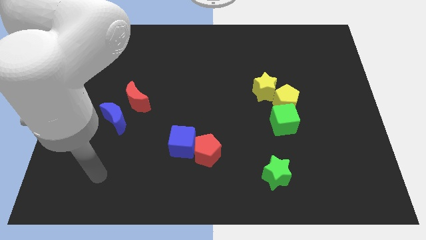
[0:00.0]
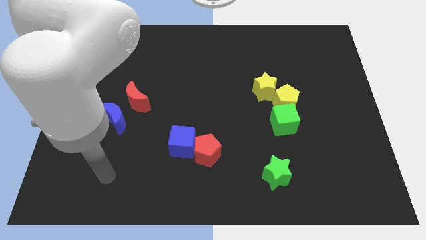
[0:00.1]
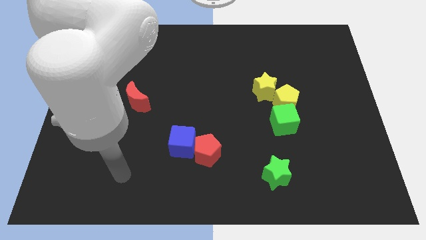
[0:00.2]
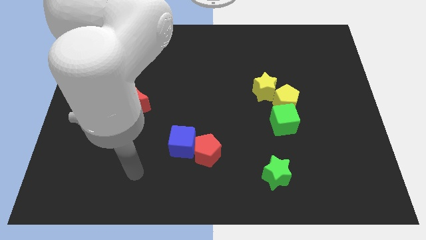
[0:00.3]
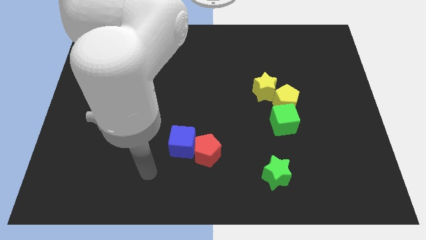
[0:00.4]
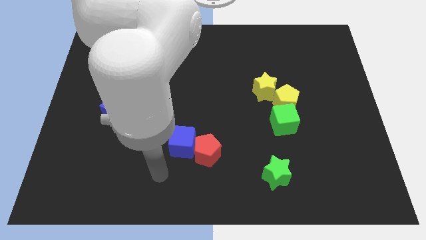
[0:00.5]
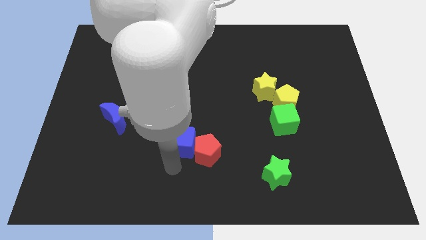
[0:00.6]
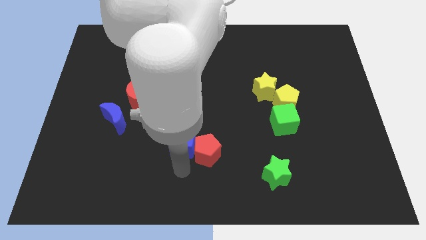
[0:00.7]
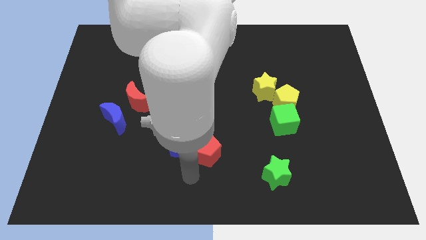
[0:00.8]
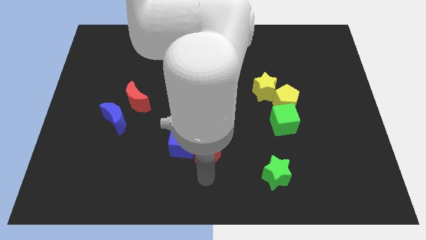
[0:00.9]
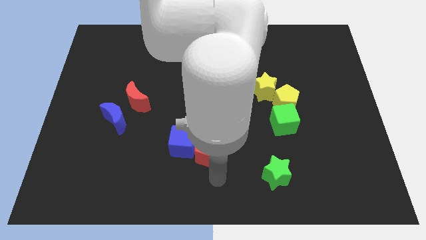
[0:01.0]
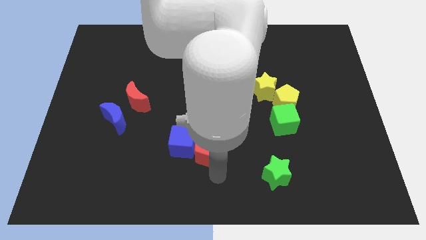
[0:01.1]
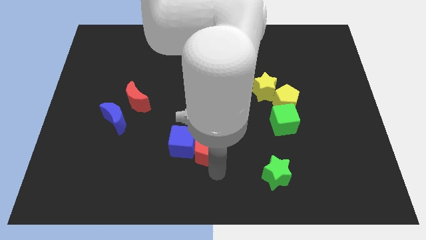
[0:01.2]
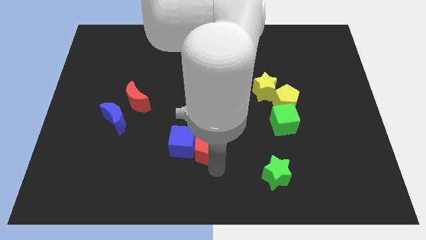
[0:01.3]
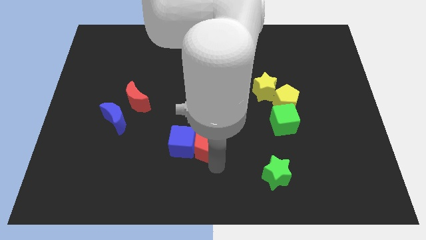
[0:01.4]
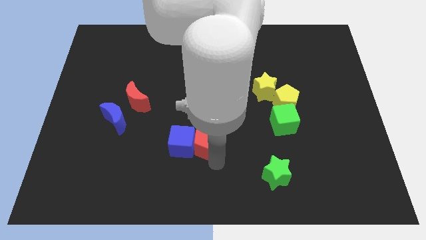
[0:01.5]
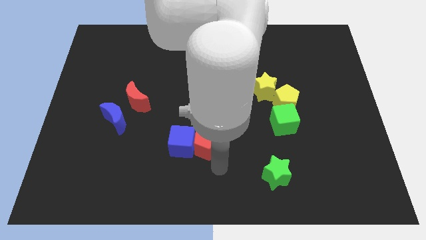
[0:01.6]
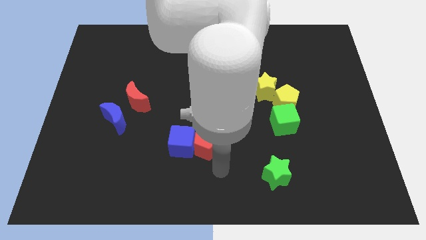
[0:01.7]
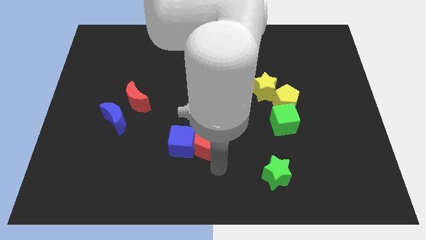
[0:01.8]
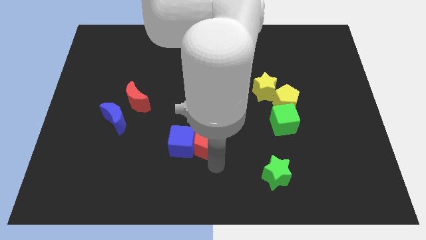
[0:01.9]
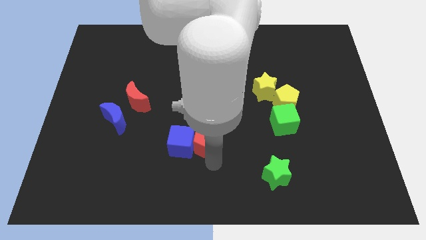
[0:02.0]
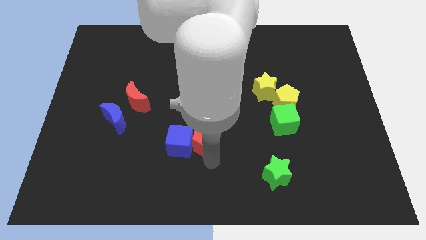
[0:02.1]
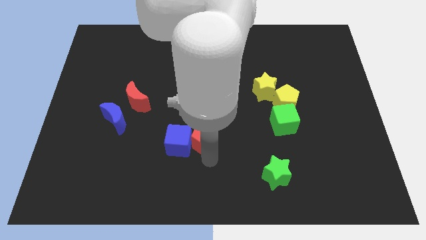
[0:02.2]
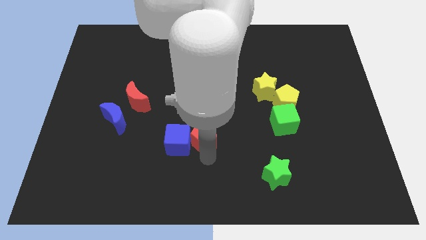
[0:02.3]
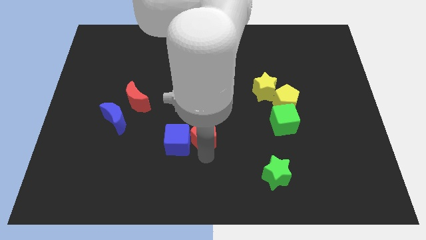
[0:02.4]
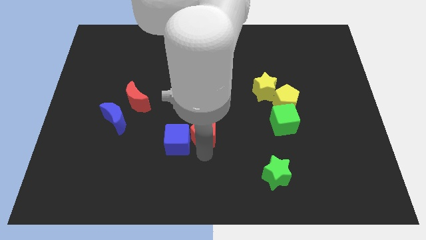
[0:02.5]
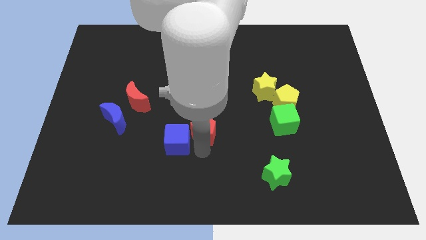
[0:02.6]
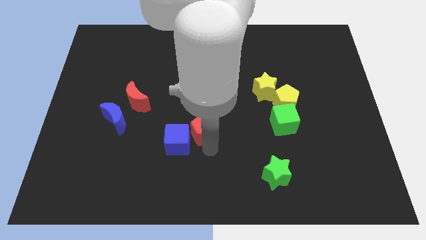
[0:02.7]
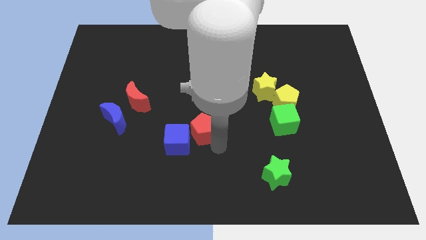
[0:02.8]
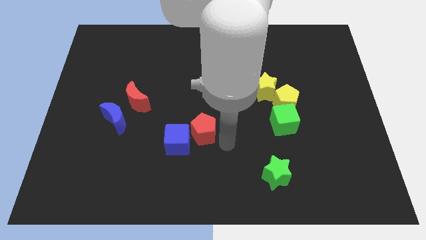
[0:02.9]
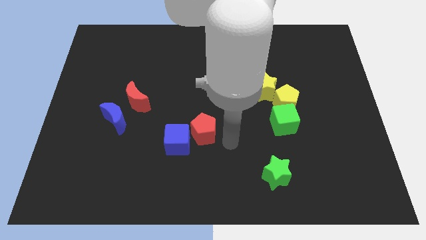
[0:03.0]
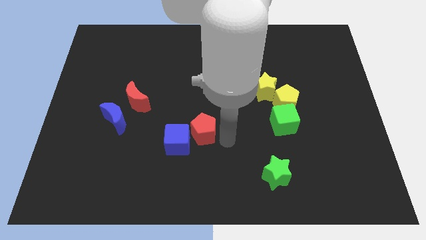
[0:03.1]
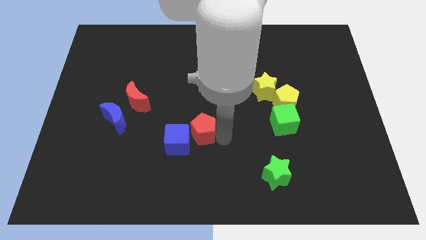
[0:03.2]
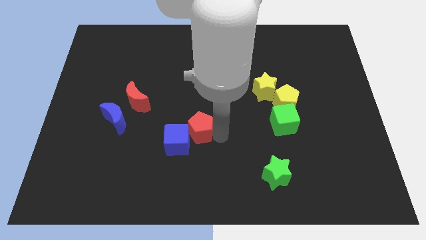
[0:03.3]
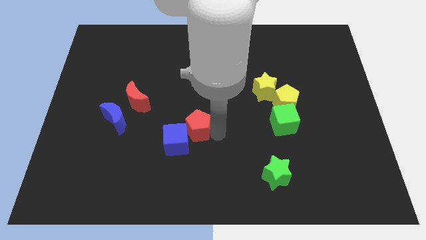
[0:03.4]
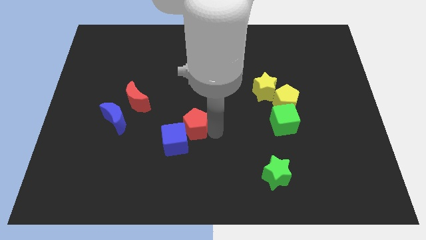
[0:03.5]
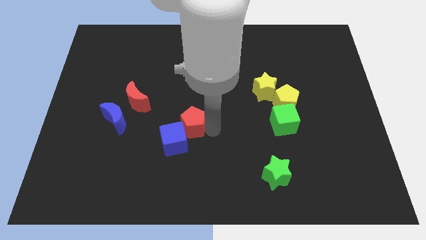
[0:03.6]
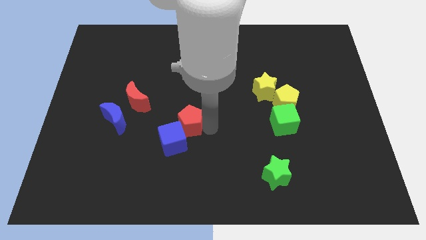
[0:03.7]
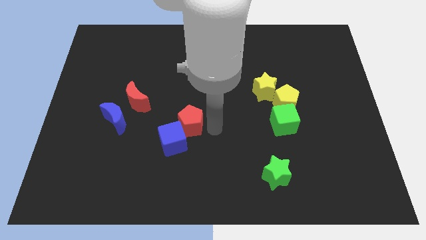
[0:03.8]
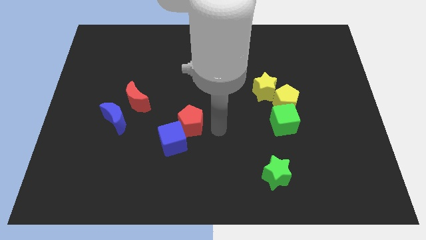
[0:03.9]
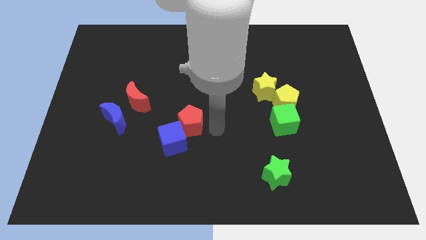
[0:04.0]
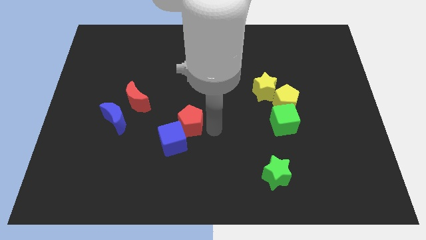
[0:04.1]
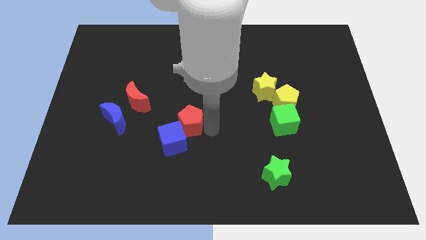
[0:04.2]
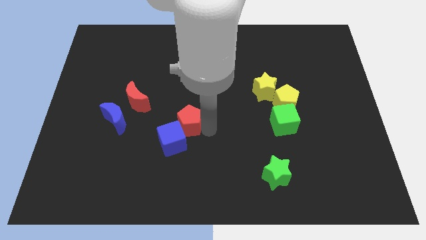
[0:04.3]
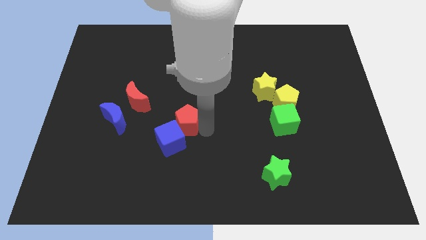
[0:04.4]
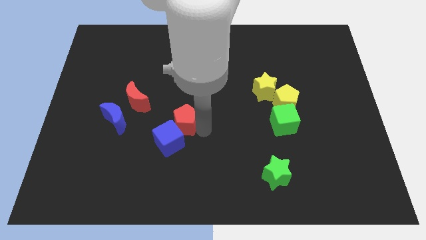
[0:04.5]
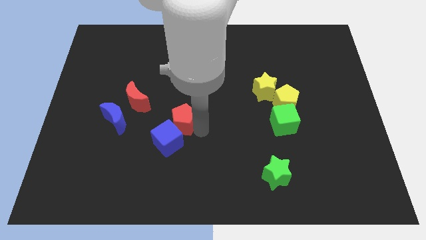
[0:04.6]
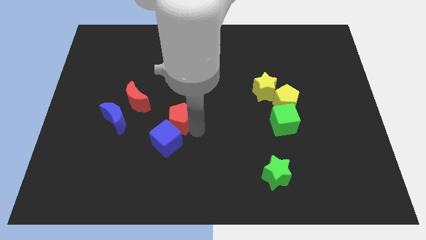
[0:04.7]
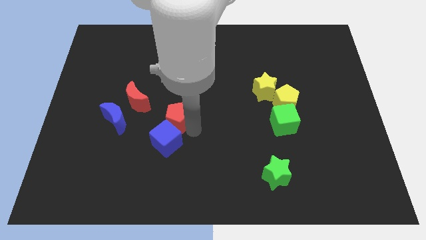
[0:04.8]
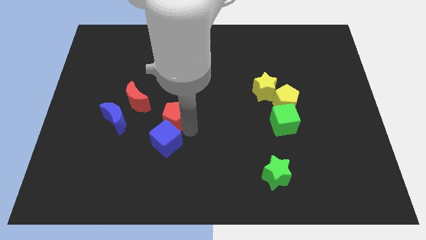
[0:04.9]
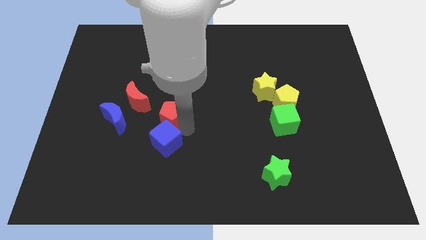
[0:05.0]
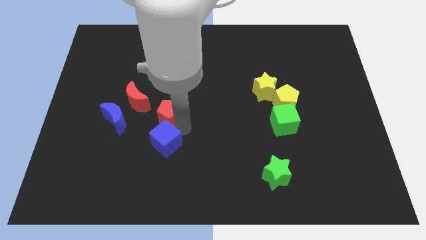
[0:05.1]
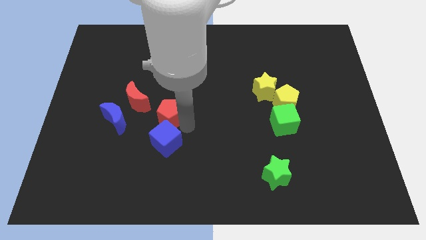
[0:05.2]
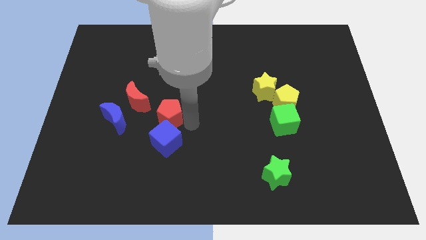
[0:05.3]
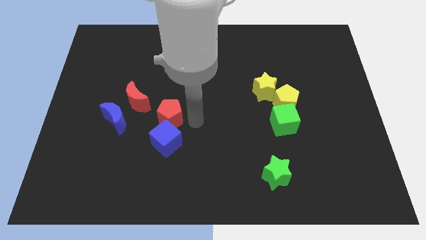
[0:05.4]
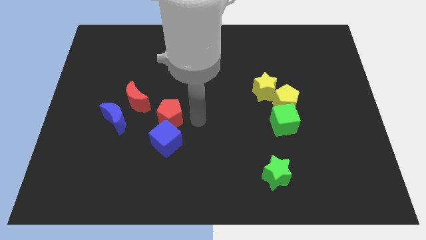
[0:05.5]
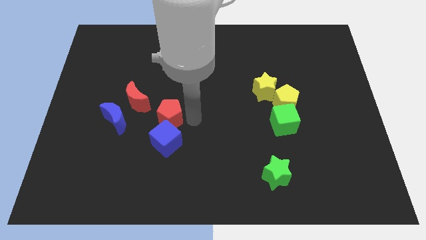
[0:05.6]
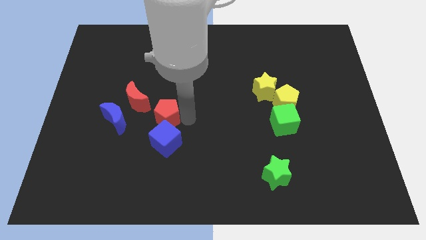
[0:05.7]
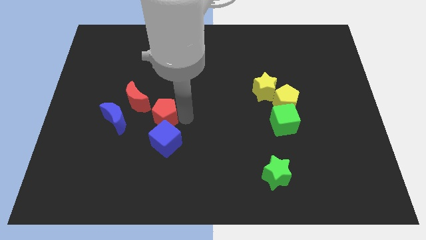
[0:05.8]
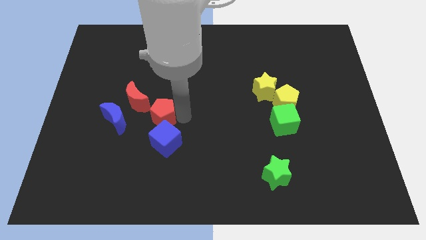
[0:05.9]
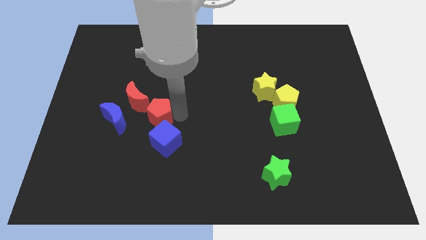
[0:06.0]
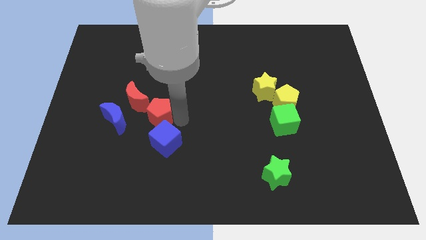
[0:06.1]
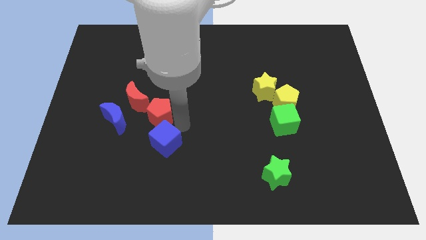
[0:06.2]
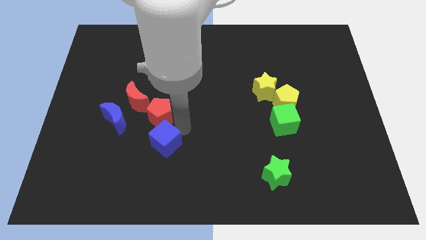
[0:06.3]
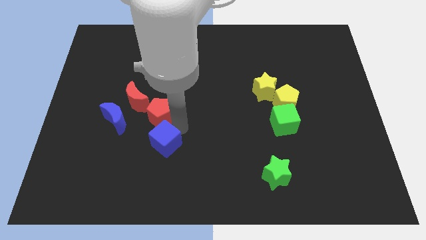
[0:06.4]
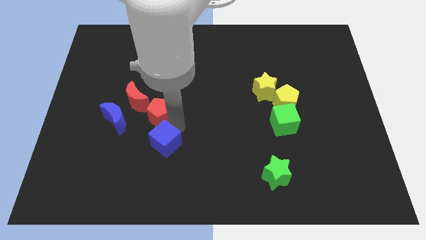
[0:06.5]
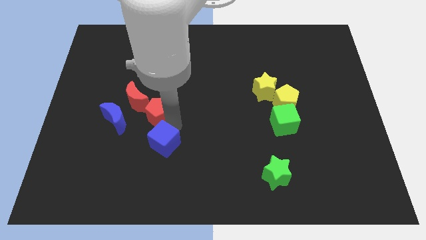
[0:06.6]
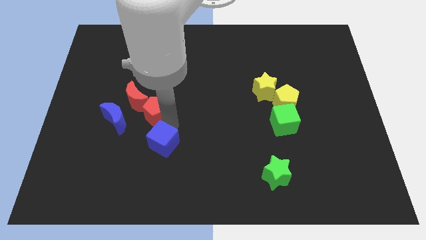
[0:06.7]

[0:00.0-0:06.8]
push the red pentagon next to the red moon
